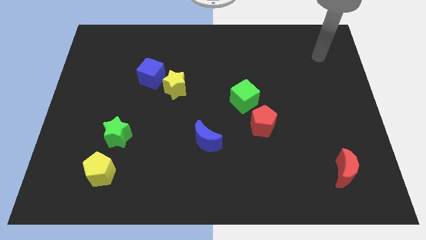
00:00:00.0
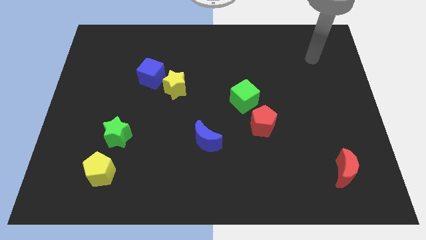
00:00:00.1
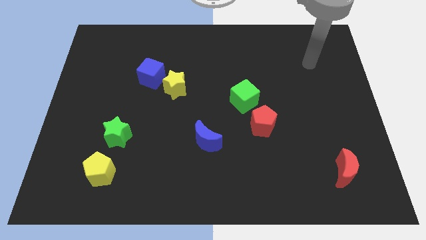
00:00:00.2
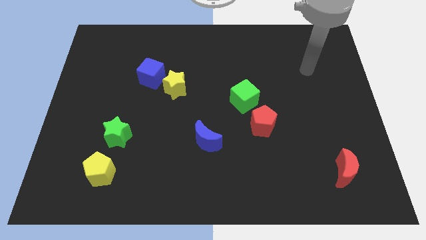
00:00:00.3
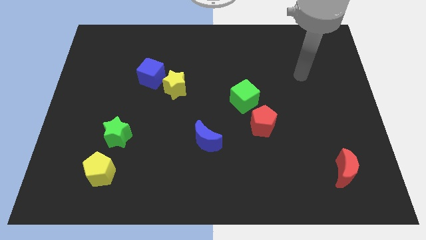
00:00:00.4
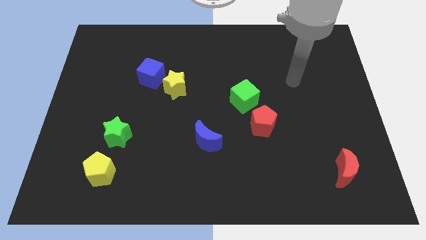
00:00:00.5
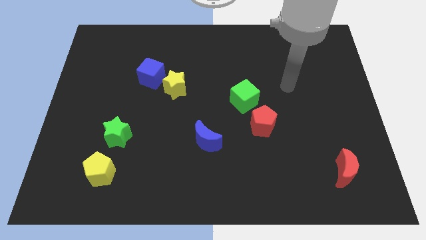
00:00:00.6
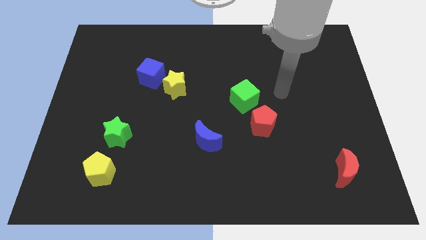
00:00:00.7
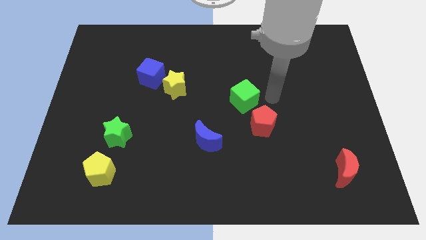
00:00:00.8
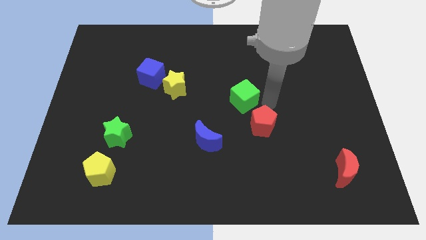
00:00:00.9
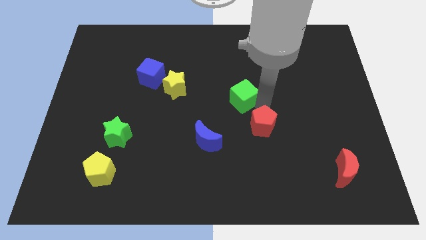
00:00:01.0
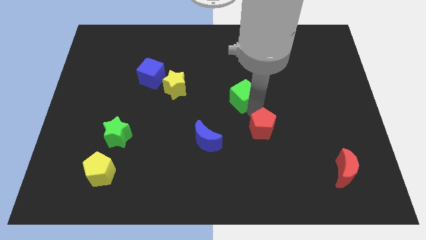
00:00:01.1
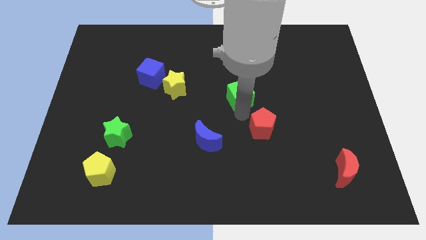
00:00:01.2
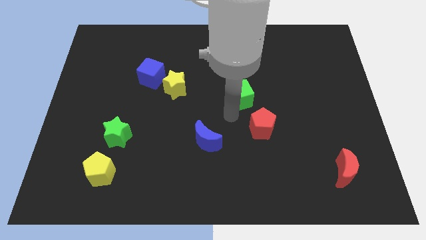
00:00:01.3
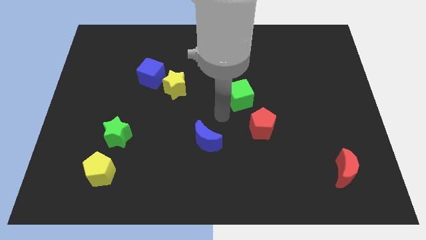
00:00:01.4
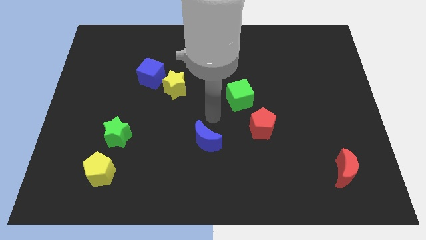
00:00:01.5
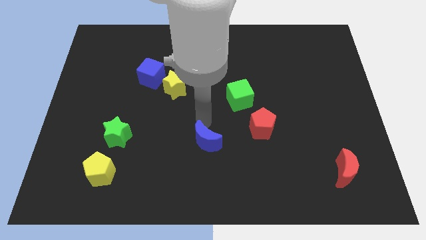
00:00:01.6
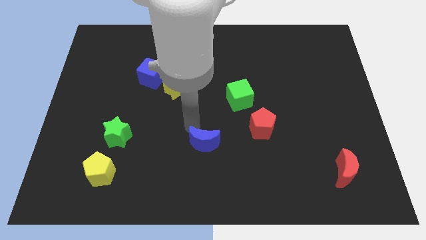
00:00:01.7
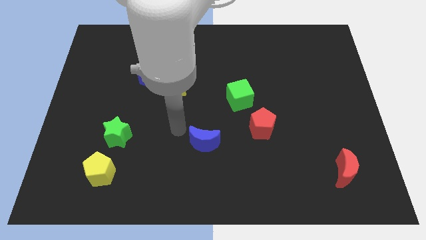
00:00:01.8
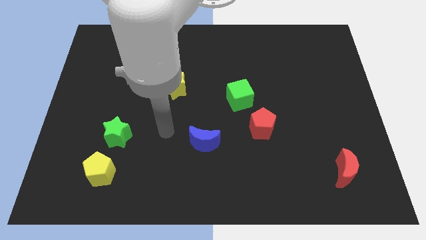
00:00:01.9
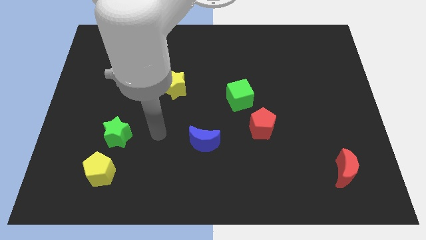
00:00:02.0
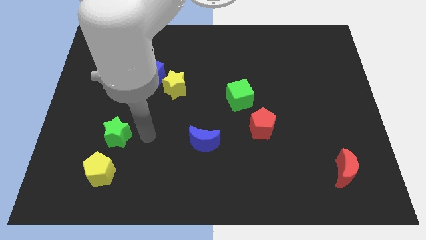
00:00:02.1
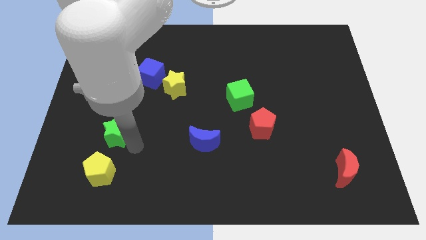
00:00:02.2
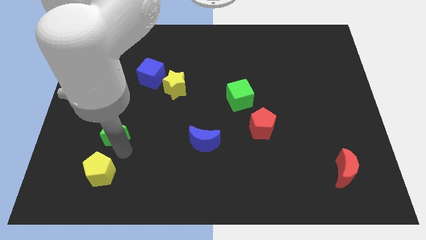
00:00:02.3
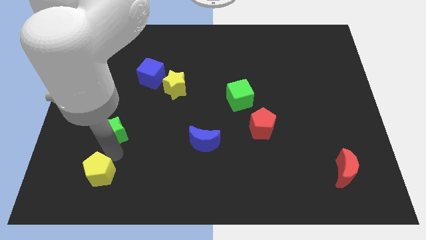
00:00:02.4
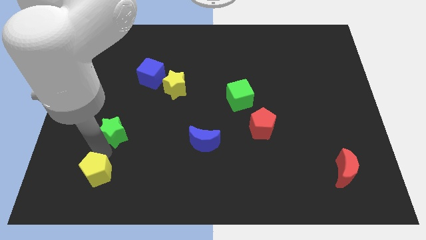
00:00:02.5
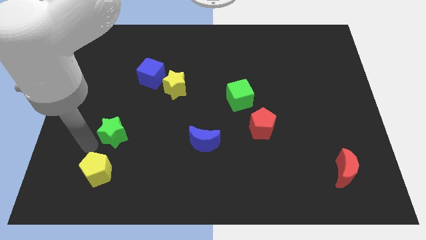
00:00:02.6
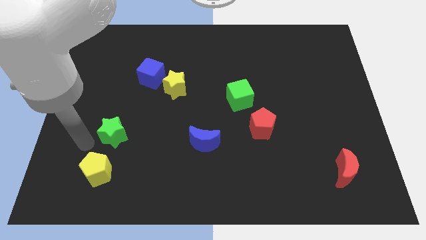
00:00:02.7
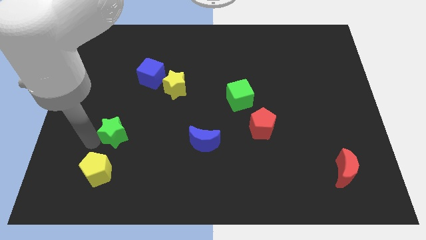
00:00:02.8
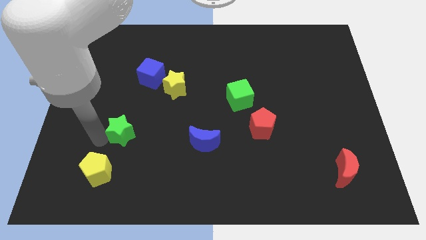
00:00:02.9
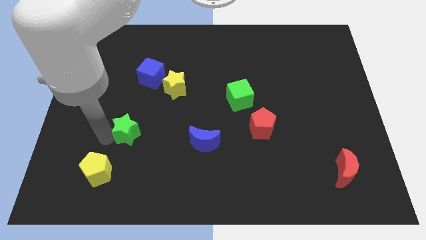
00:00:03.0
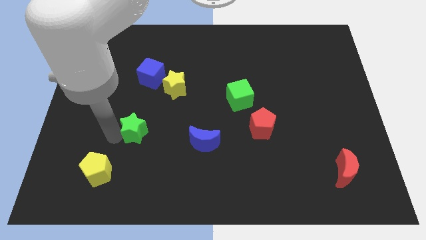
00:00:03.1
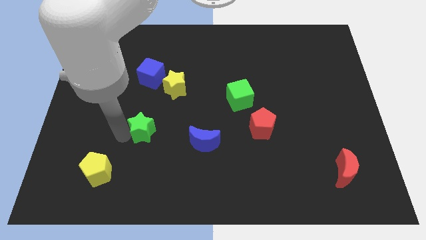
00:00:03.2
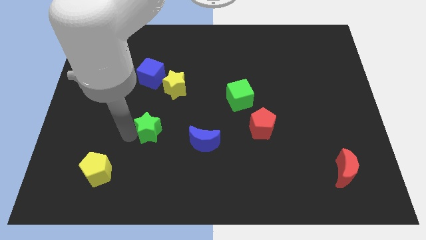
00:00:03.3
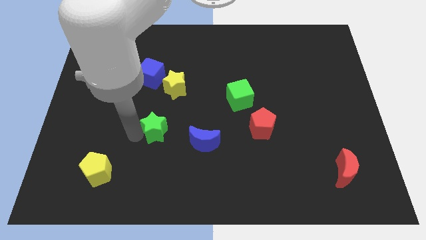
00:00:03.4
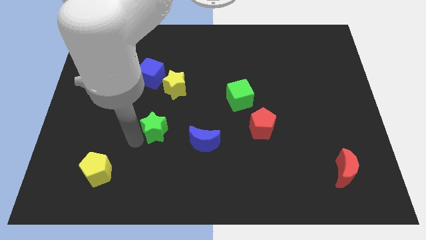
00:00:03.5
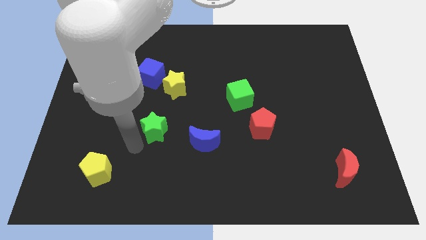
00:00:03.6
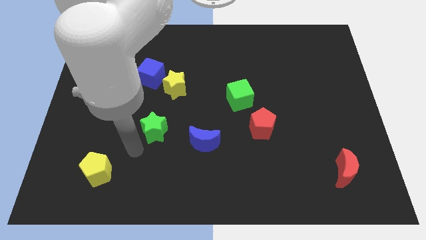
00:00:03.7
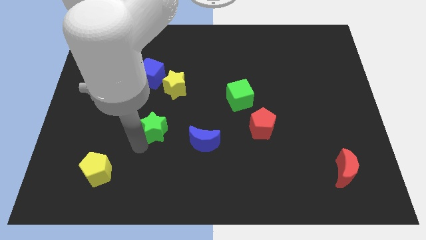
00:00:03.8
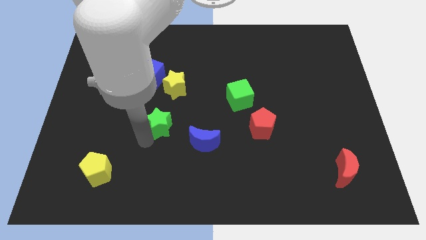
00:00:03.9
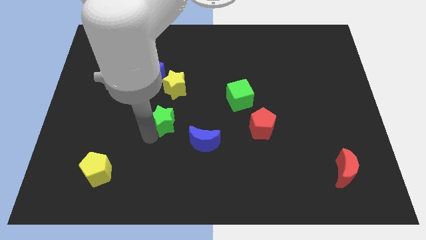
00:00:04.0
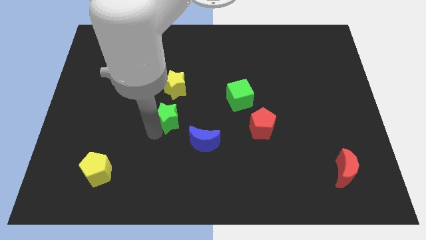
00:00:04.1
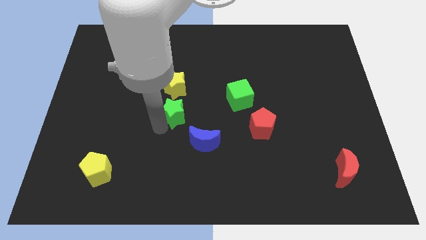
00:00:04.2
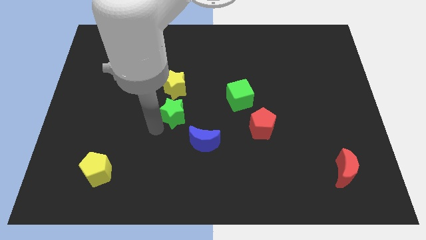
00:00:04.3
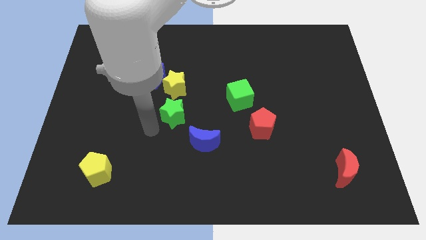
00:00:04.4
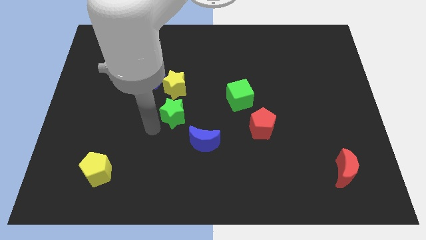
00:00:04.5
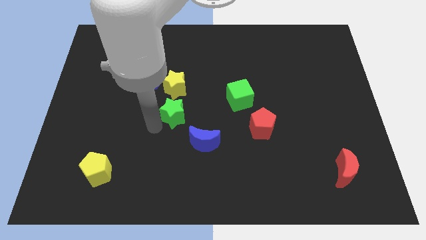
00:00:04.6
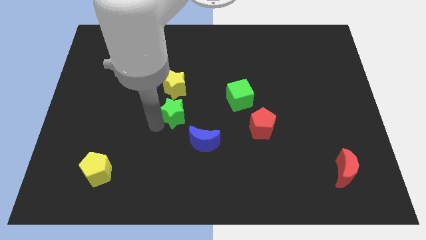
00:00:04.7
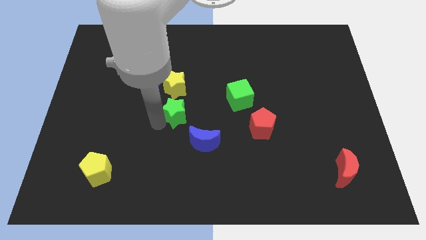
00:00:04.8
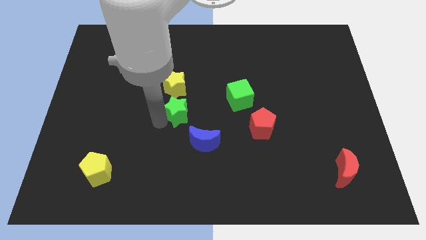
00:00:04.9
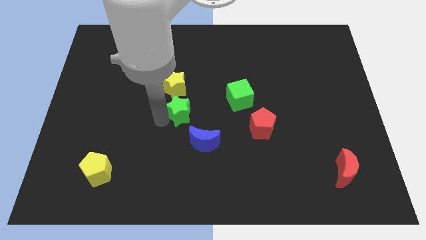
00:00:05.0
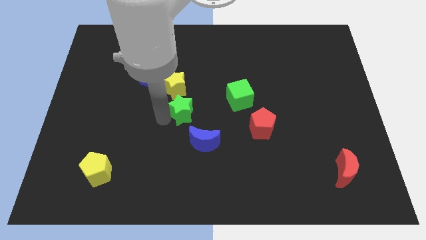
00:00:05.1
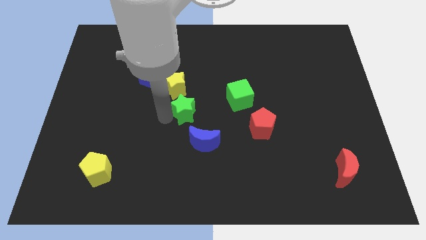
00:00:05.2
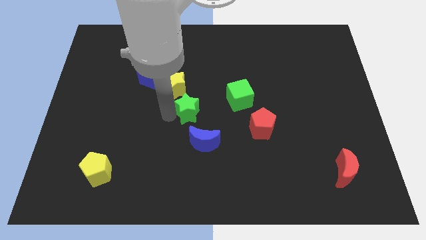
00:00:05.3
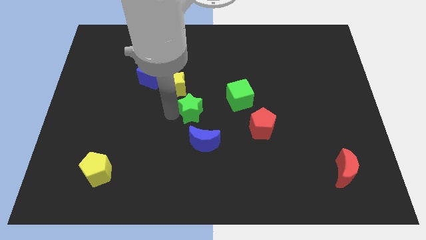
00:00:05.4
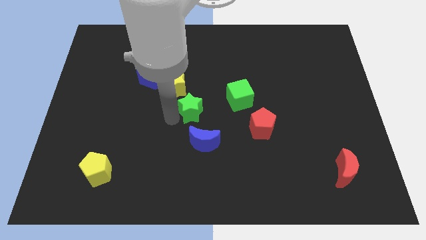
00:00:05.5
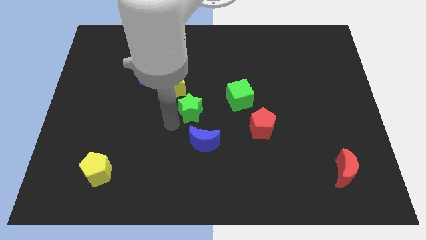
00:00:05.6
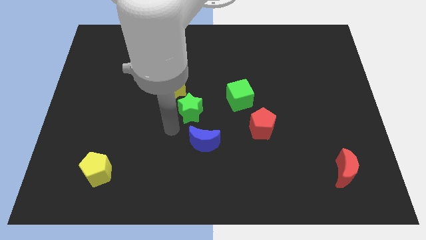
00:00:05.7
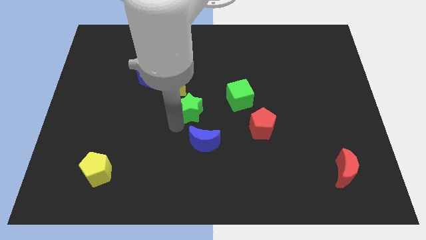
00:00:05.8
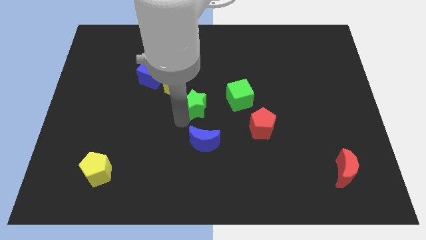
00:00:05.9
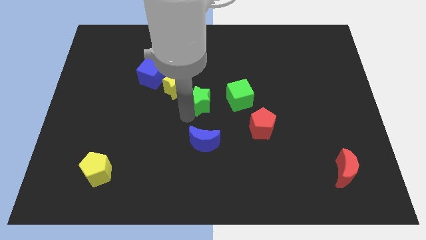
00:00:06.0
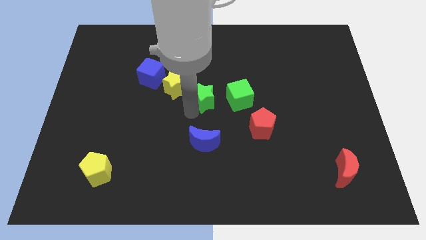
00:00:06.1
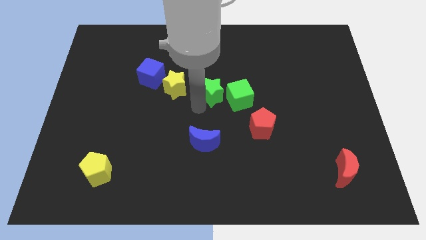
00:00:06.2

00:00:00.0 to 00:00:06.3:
move the green star up and then to the right

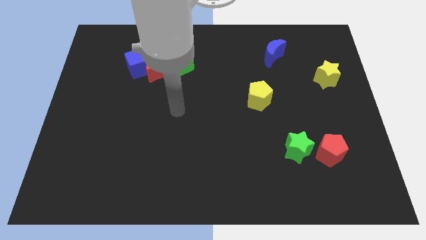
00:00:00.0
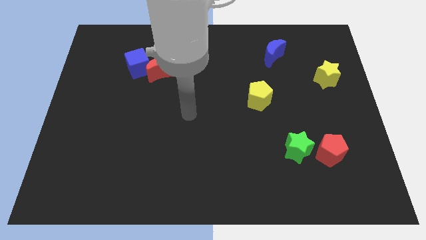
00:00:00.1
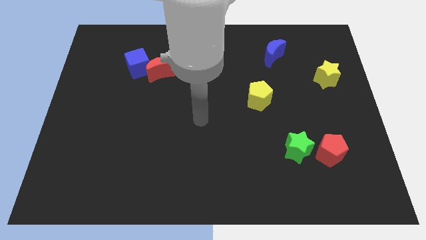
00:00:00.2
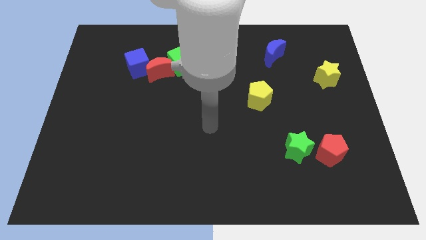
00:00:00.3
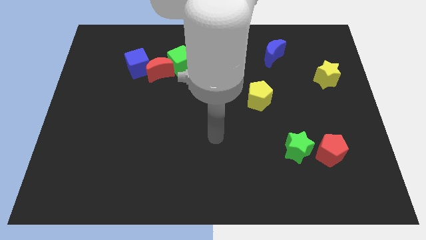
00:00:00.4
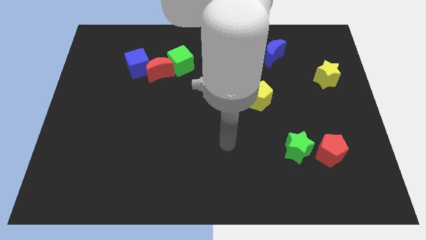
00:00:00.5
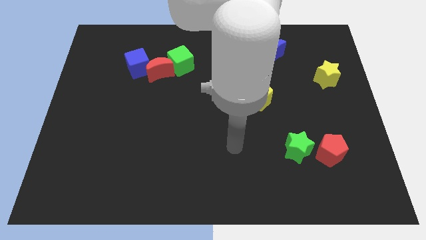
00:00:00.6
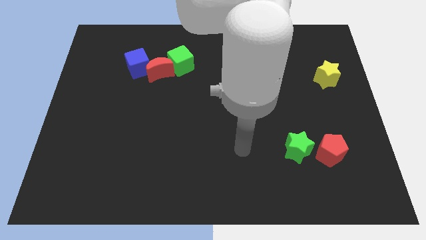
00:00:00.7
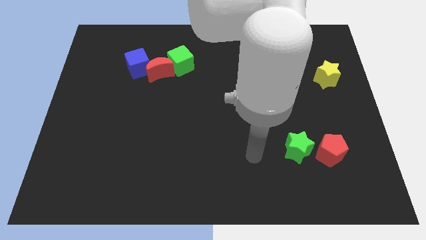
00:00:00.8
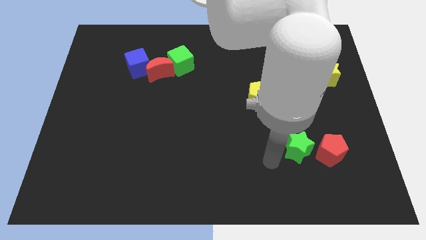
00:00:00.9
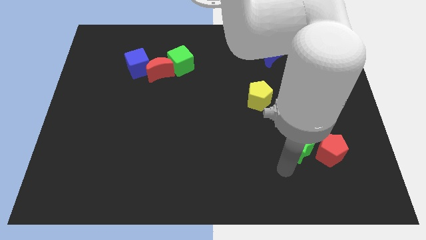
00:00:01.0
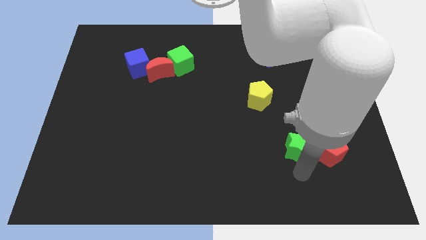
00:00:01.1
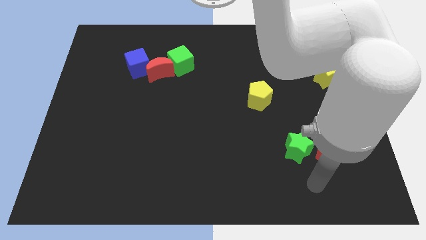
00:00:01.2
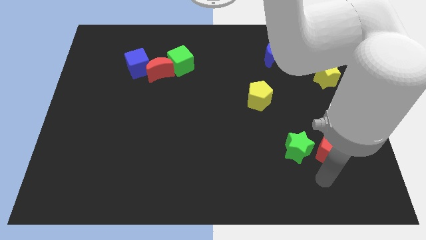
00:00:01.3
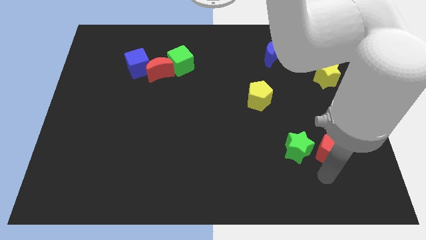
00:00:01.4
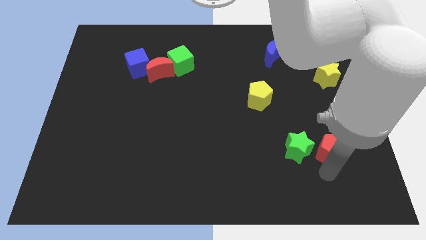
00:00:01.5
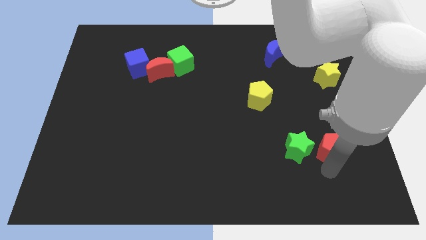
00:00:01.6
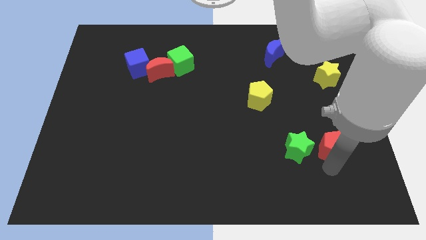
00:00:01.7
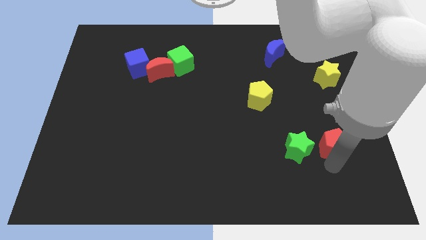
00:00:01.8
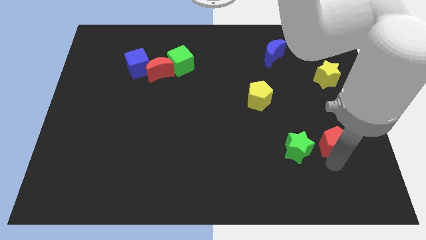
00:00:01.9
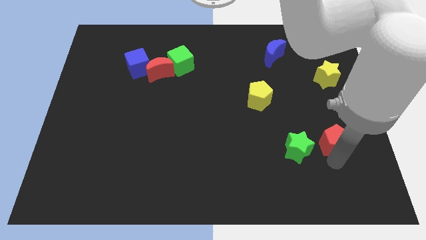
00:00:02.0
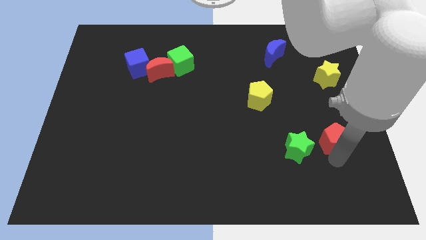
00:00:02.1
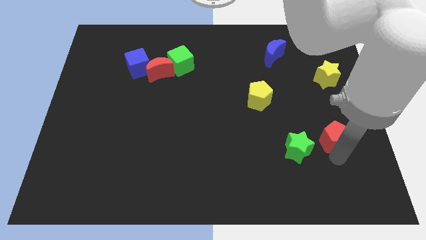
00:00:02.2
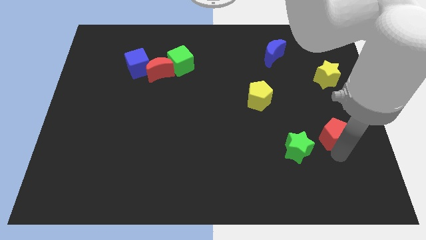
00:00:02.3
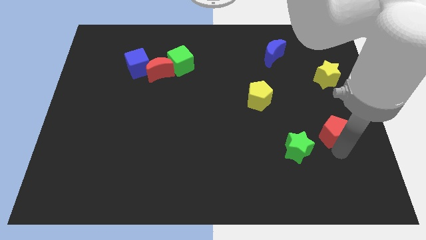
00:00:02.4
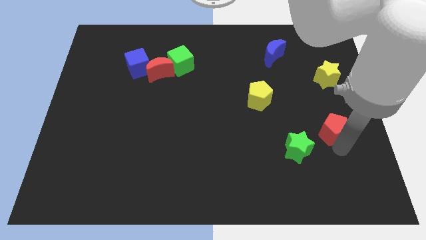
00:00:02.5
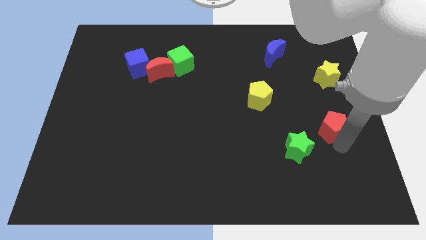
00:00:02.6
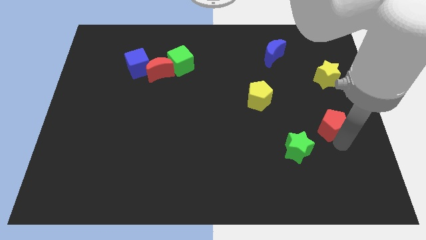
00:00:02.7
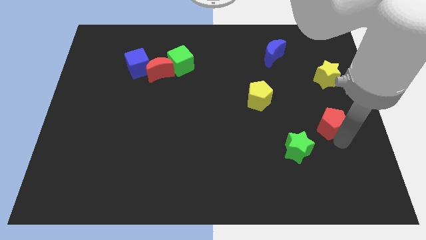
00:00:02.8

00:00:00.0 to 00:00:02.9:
slide the red pentagon a little up
